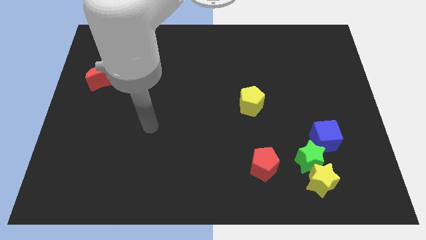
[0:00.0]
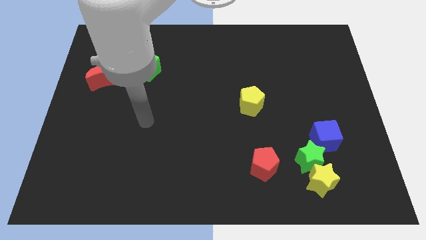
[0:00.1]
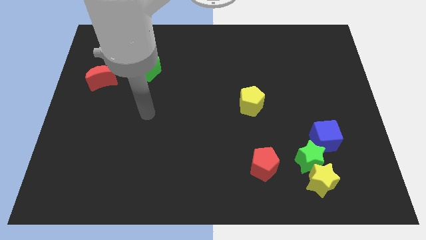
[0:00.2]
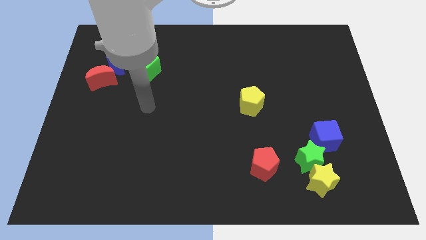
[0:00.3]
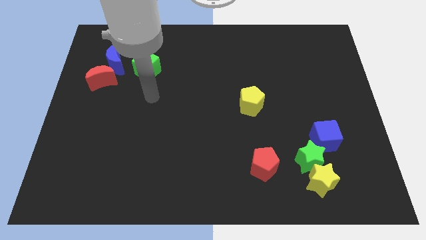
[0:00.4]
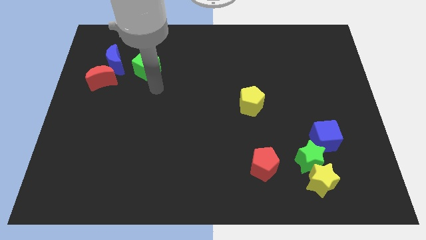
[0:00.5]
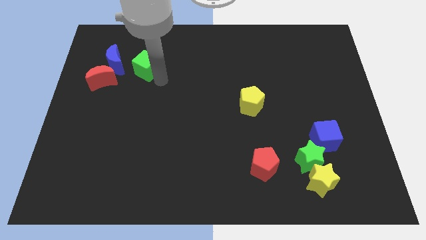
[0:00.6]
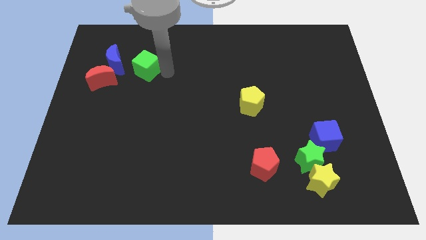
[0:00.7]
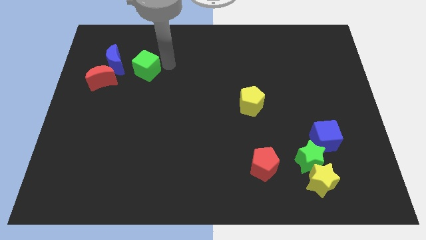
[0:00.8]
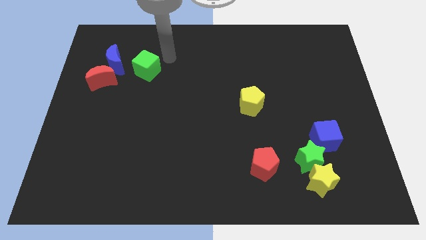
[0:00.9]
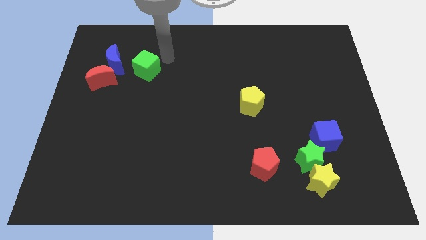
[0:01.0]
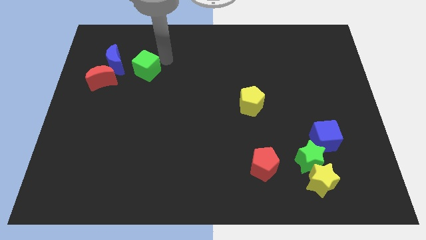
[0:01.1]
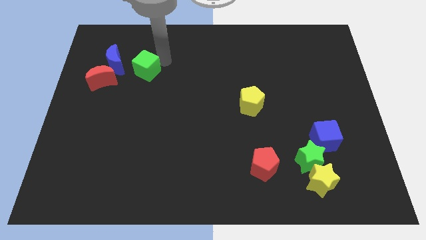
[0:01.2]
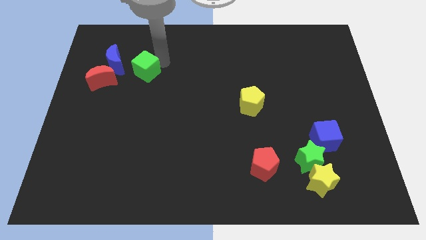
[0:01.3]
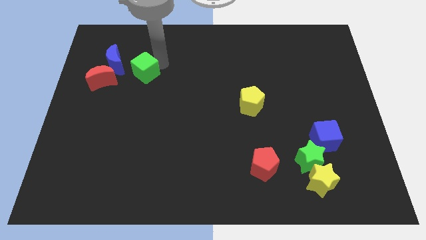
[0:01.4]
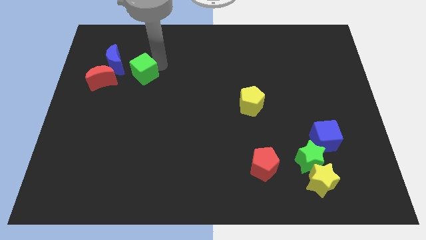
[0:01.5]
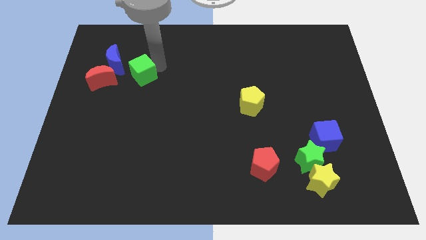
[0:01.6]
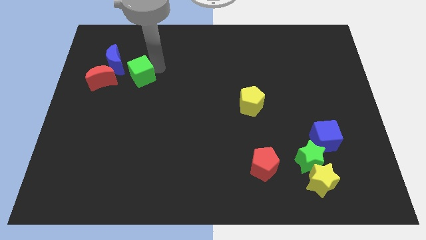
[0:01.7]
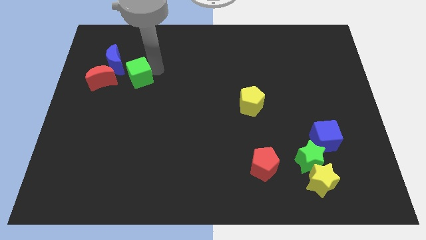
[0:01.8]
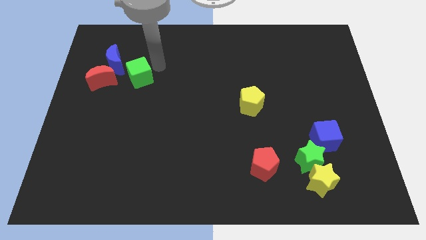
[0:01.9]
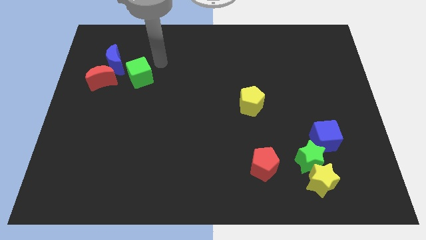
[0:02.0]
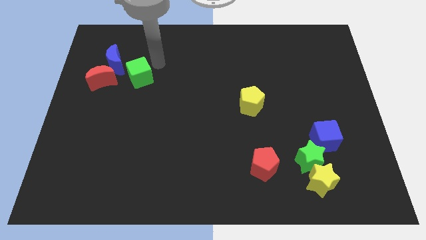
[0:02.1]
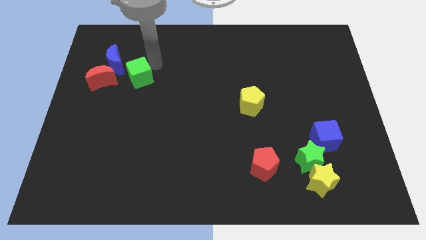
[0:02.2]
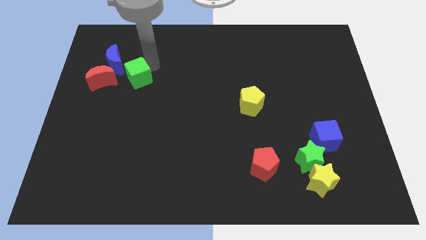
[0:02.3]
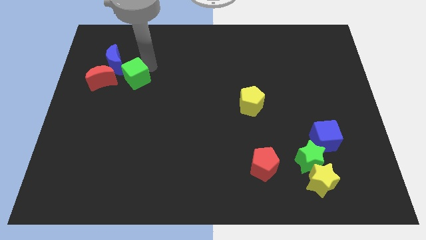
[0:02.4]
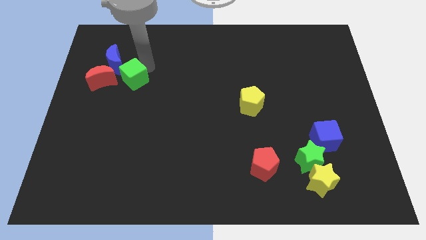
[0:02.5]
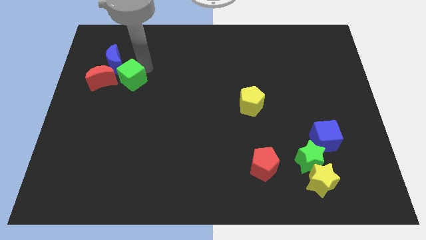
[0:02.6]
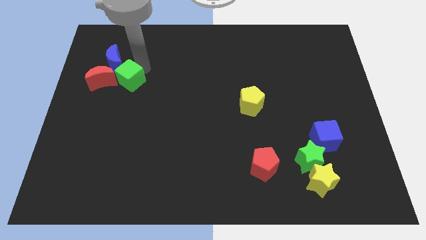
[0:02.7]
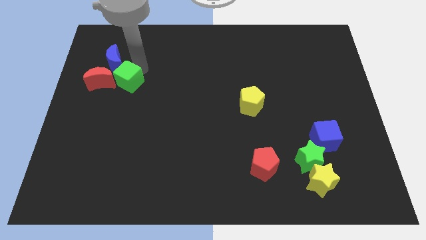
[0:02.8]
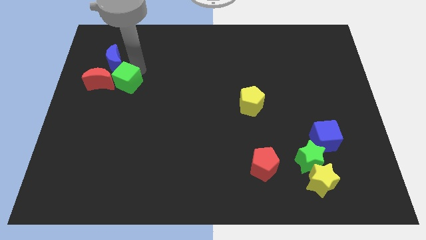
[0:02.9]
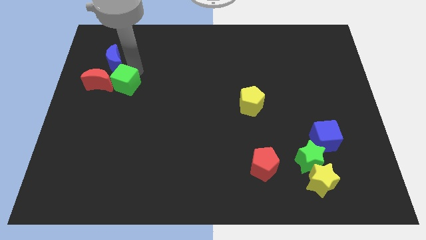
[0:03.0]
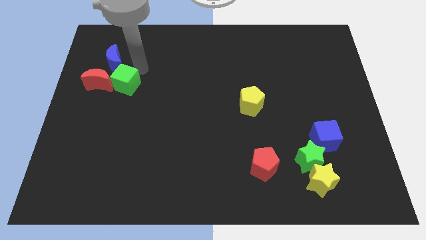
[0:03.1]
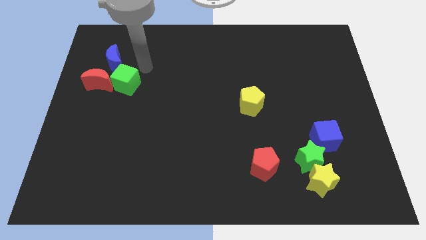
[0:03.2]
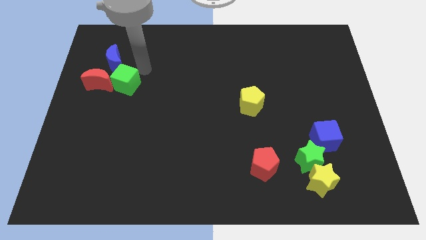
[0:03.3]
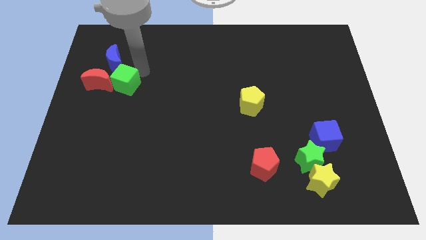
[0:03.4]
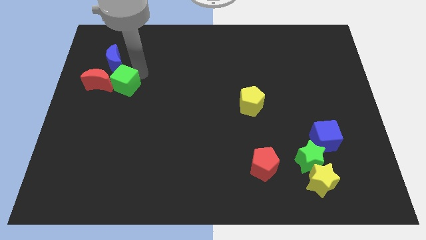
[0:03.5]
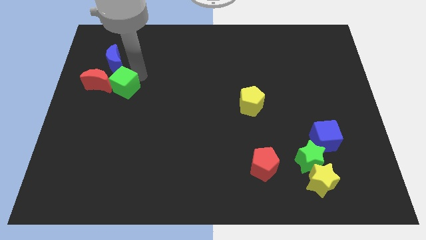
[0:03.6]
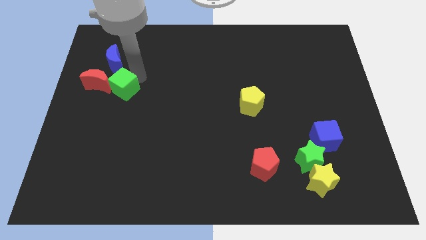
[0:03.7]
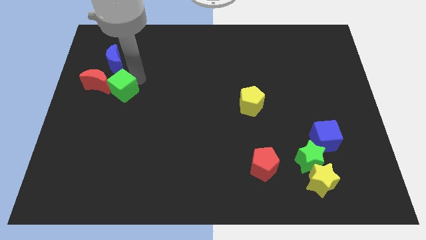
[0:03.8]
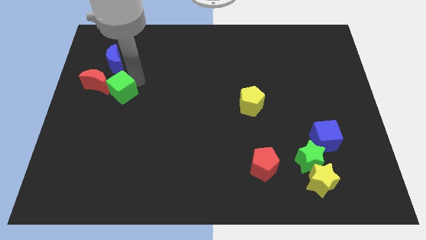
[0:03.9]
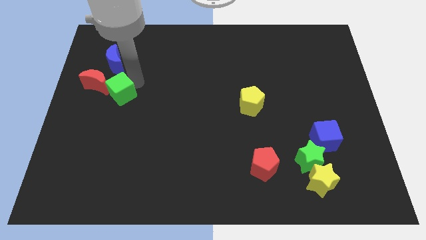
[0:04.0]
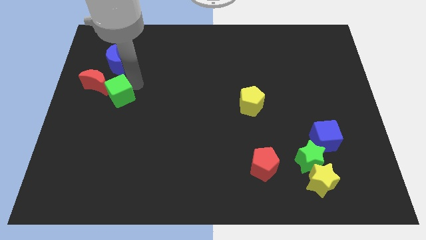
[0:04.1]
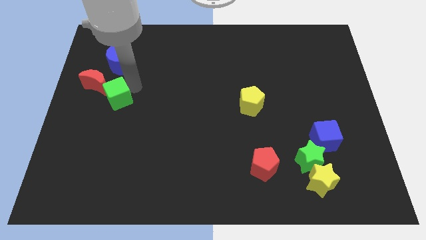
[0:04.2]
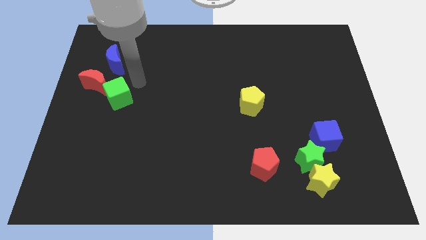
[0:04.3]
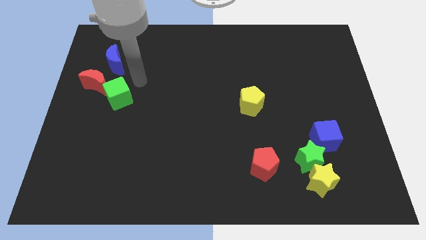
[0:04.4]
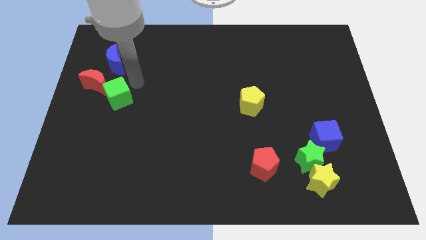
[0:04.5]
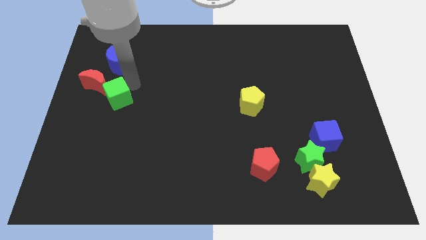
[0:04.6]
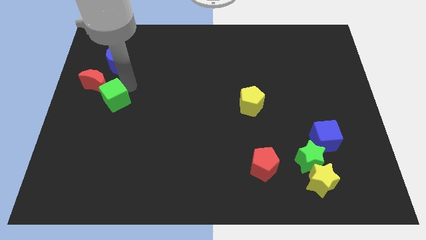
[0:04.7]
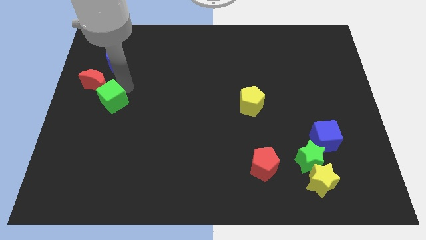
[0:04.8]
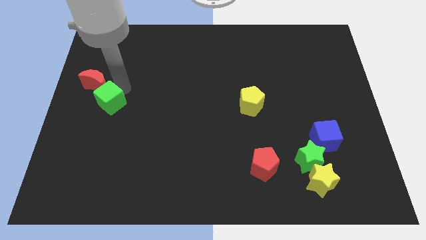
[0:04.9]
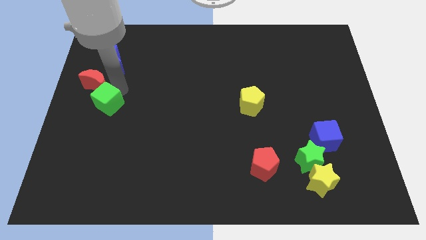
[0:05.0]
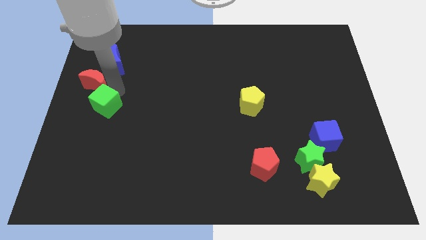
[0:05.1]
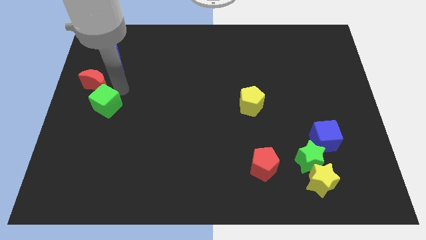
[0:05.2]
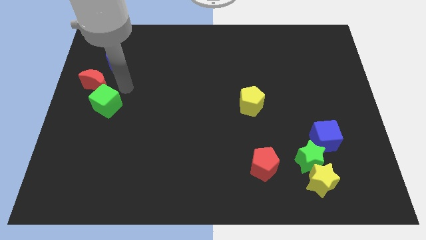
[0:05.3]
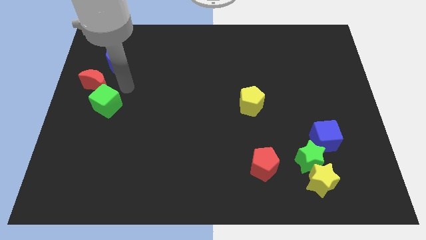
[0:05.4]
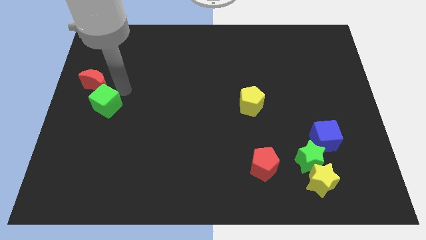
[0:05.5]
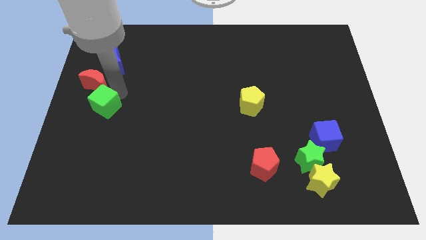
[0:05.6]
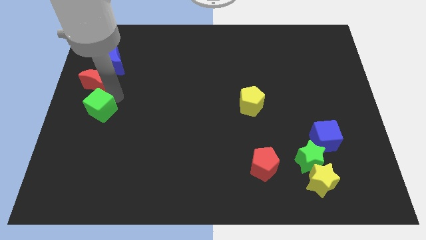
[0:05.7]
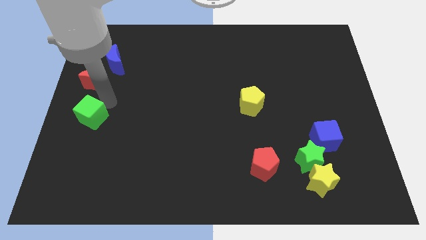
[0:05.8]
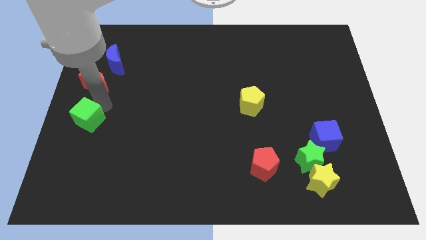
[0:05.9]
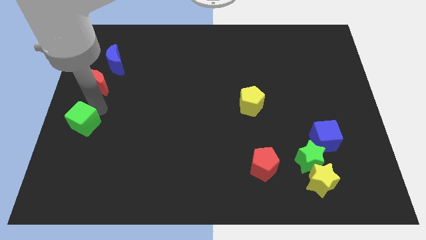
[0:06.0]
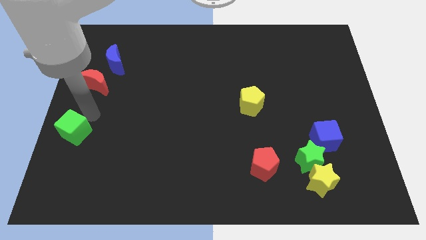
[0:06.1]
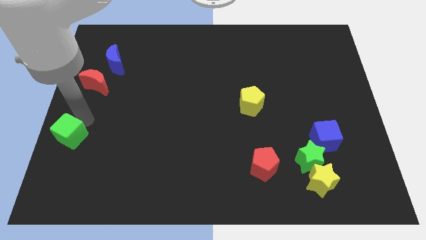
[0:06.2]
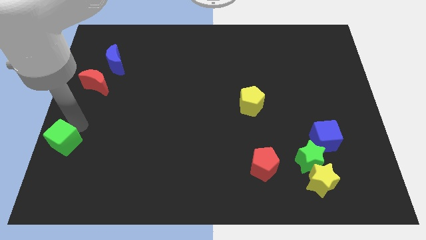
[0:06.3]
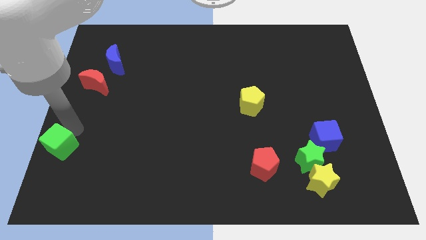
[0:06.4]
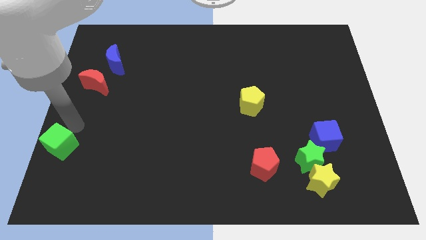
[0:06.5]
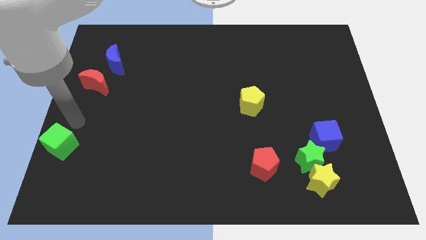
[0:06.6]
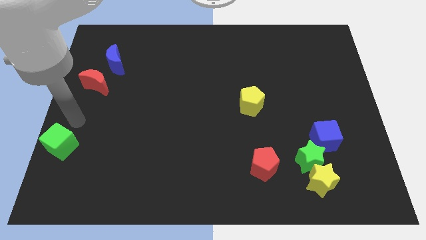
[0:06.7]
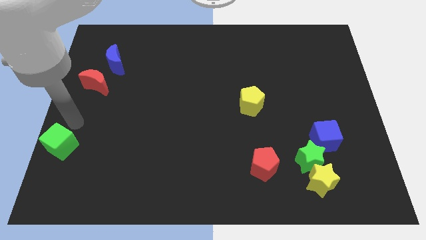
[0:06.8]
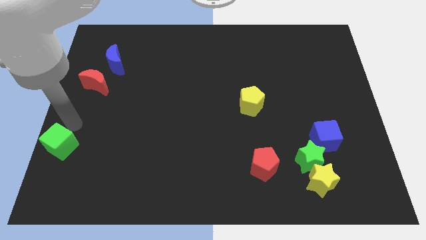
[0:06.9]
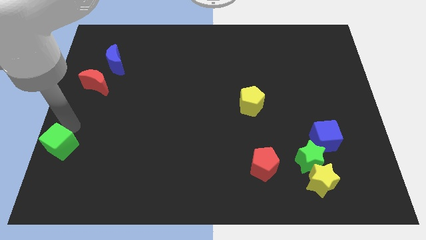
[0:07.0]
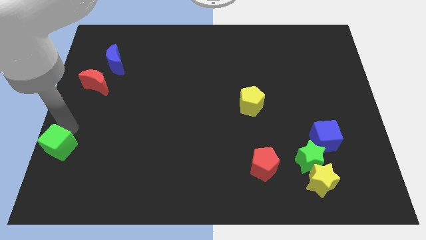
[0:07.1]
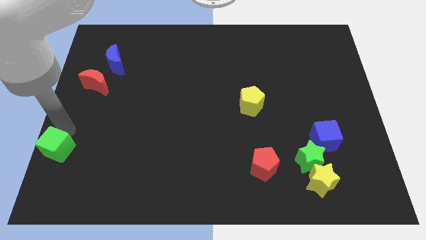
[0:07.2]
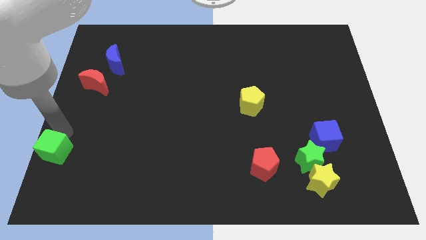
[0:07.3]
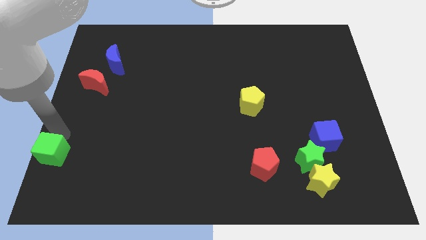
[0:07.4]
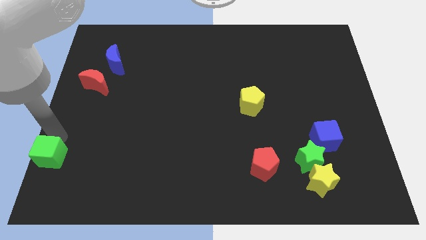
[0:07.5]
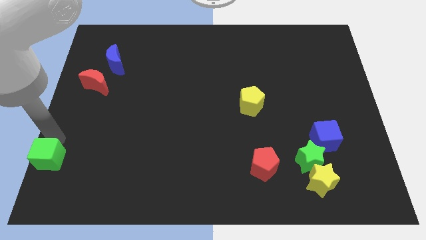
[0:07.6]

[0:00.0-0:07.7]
push the green cube to the bottom left corner
